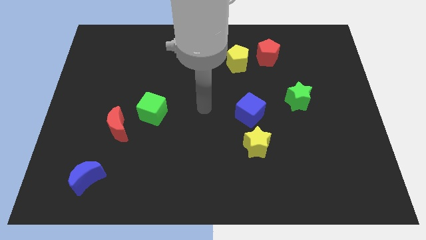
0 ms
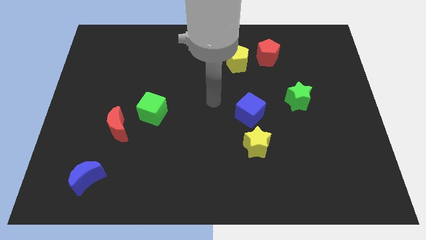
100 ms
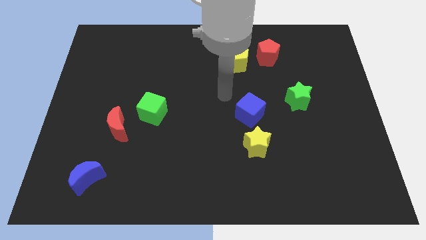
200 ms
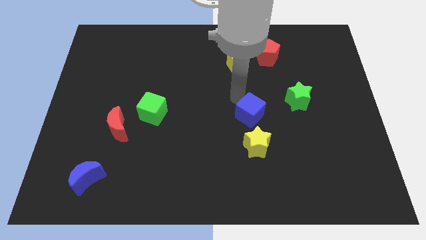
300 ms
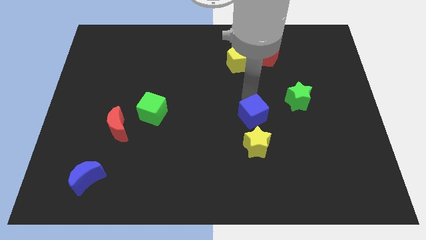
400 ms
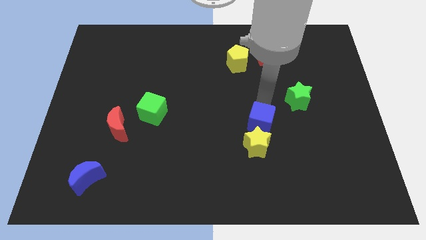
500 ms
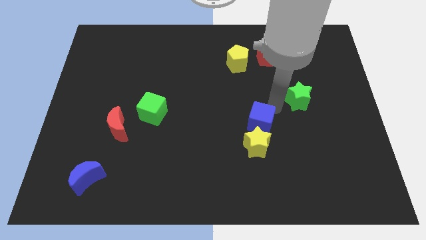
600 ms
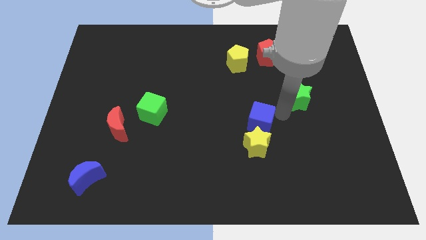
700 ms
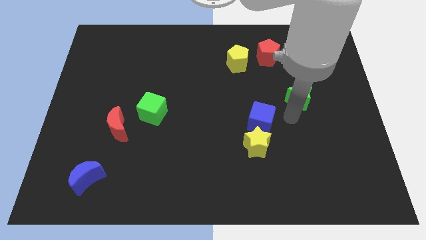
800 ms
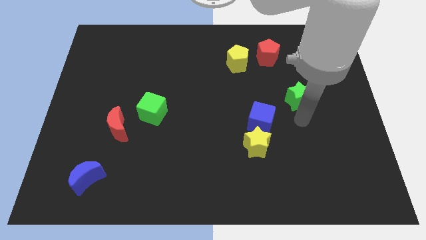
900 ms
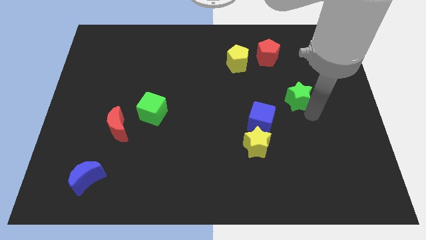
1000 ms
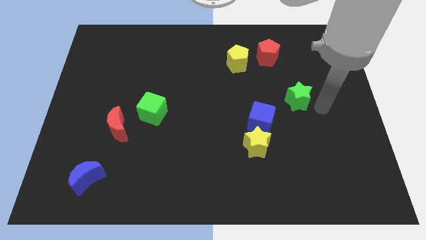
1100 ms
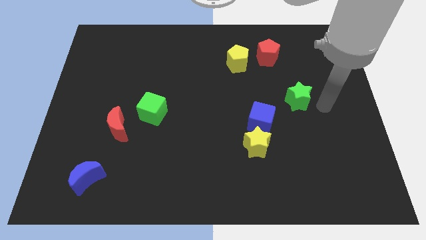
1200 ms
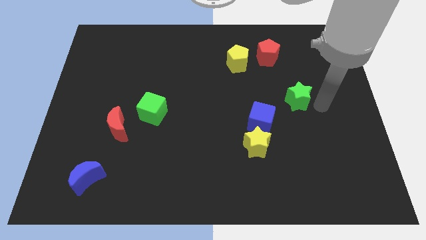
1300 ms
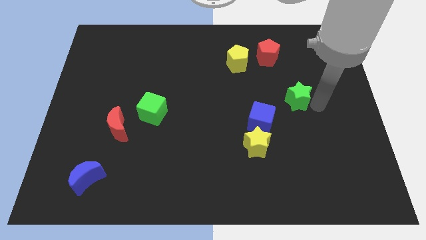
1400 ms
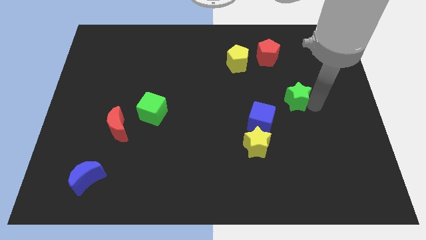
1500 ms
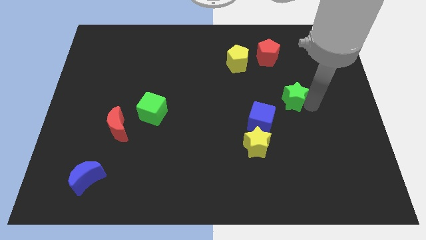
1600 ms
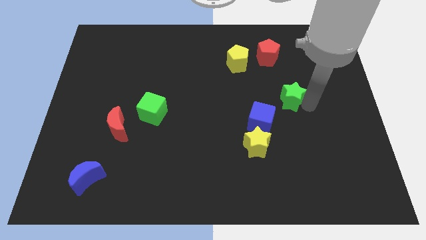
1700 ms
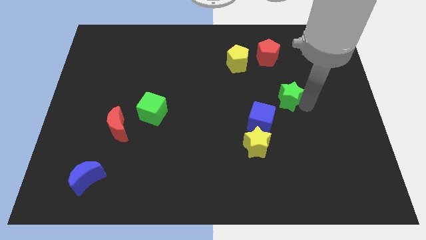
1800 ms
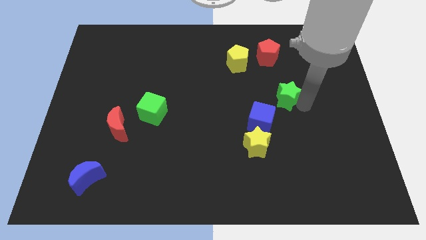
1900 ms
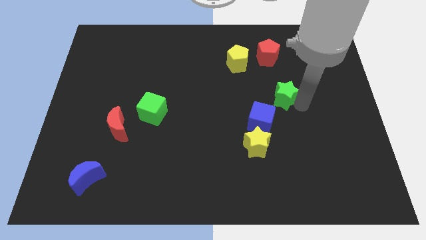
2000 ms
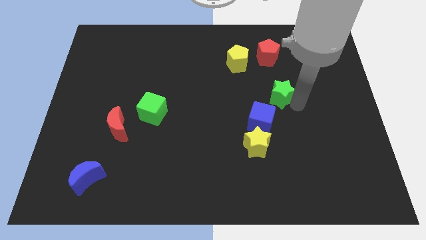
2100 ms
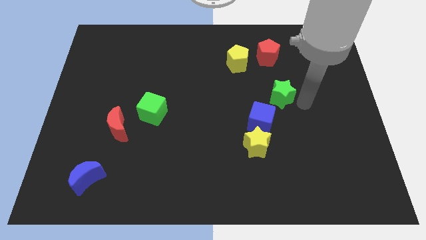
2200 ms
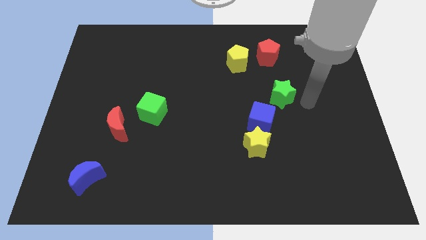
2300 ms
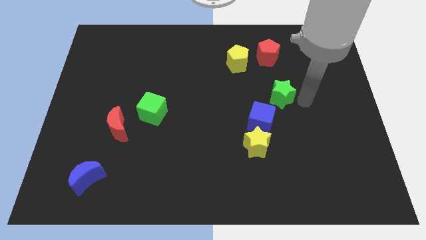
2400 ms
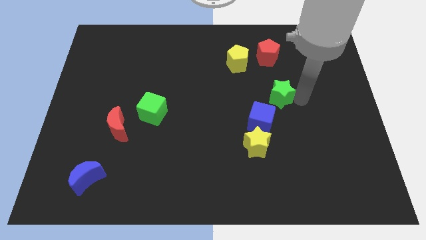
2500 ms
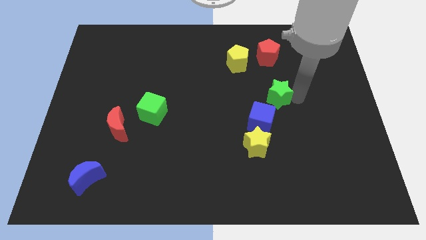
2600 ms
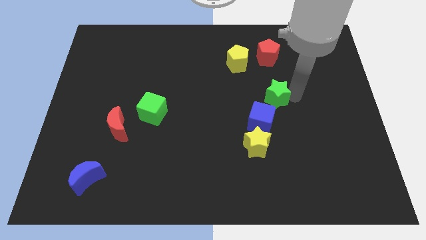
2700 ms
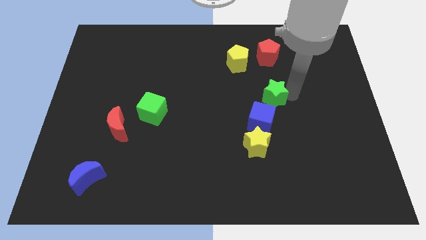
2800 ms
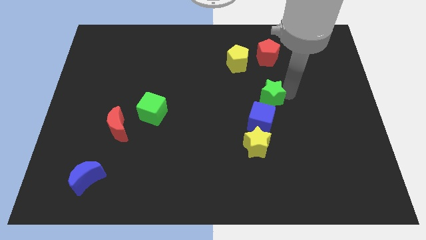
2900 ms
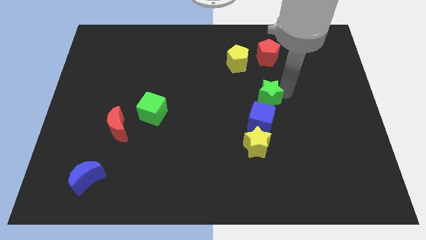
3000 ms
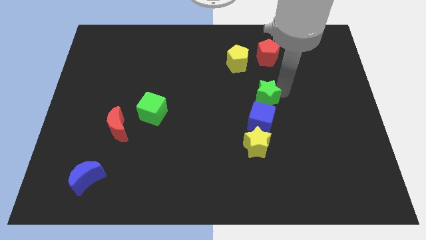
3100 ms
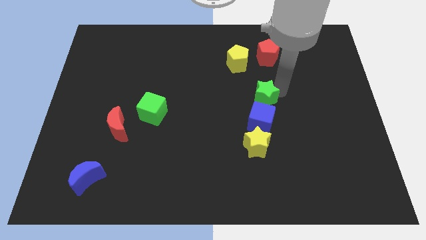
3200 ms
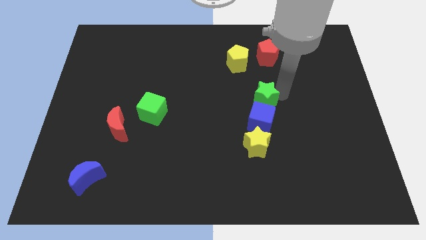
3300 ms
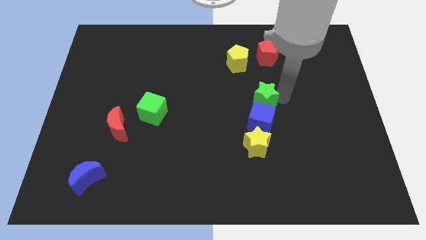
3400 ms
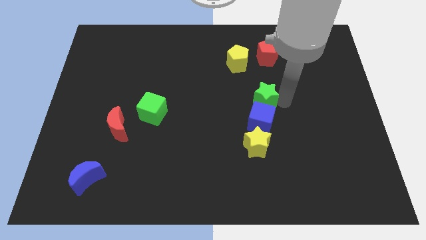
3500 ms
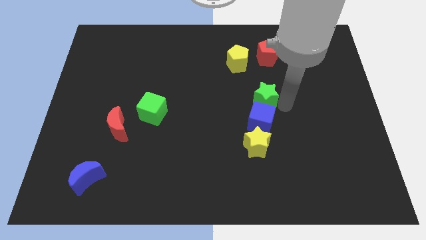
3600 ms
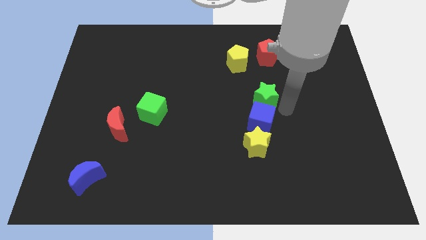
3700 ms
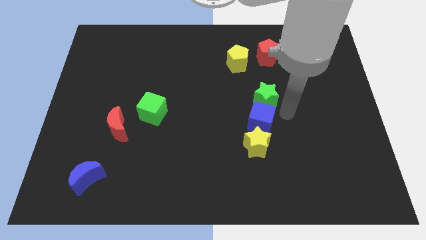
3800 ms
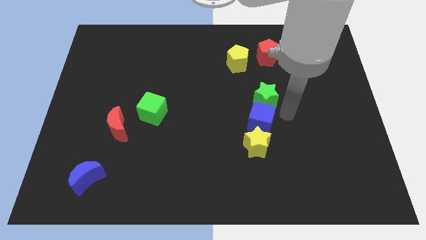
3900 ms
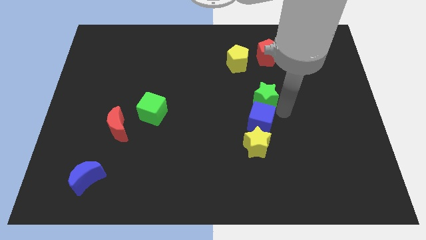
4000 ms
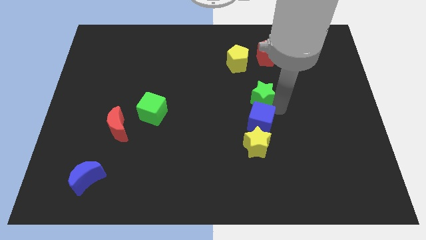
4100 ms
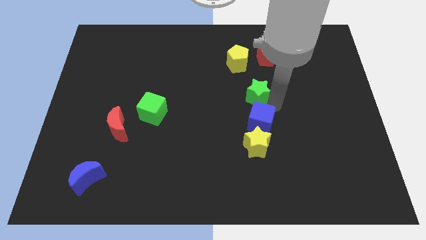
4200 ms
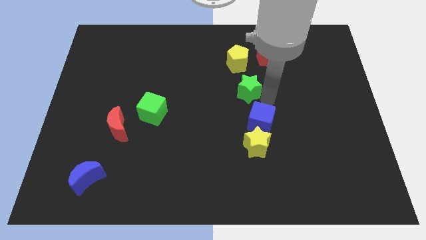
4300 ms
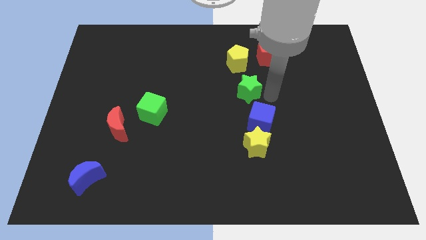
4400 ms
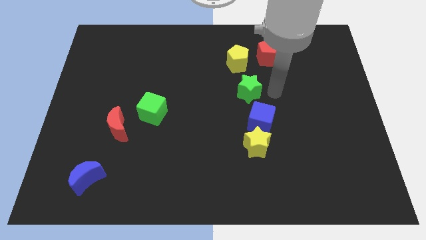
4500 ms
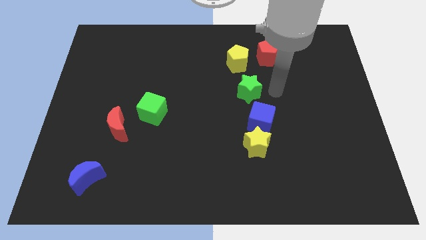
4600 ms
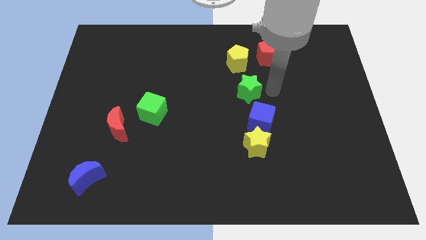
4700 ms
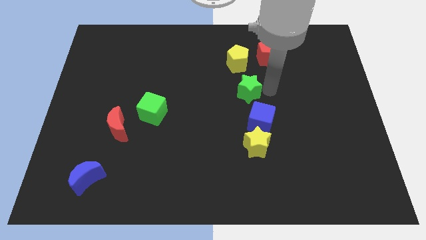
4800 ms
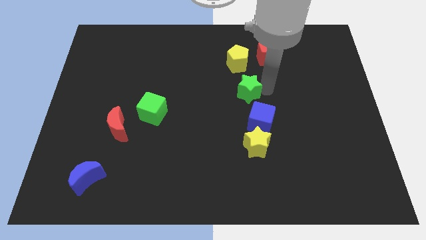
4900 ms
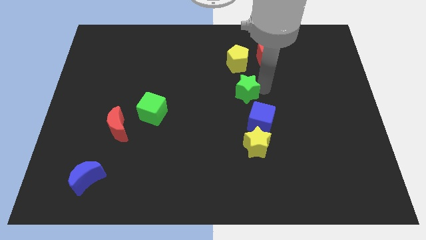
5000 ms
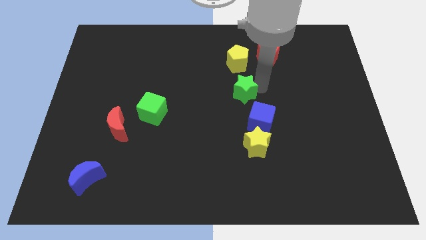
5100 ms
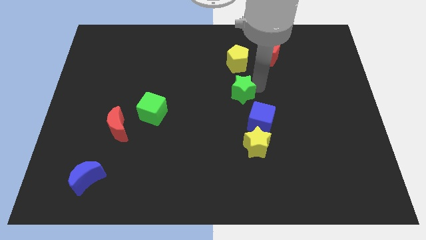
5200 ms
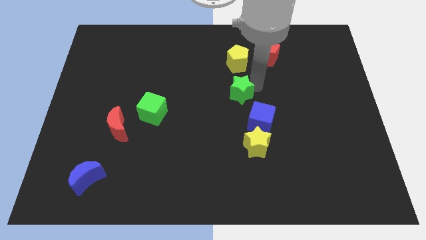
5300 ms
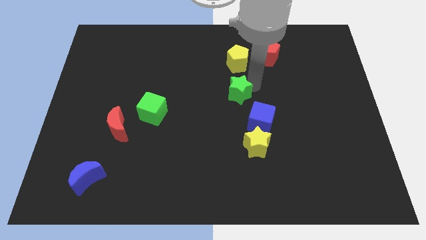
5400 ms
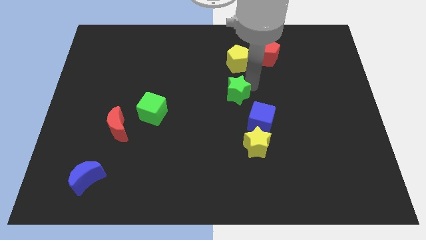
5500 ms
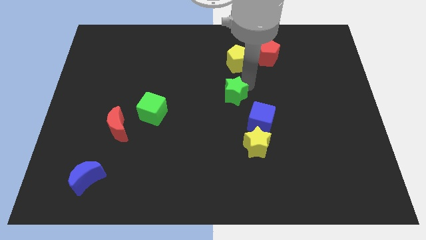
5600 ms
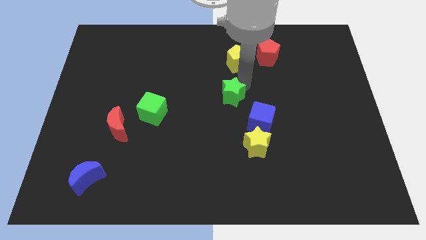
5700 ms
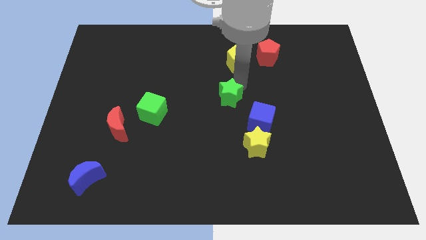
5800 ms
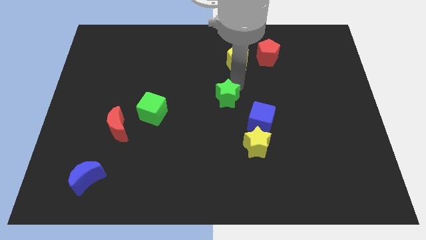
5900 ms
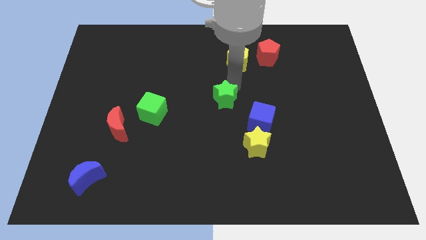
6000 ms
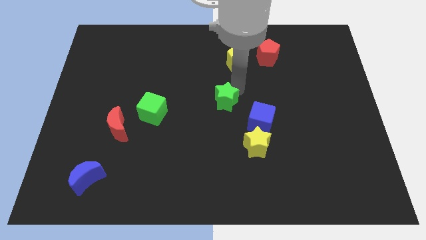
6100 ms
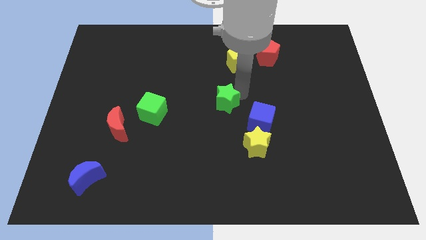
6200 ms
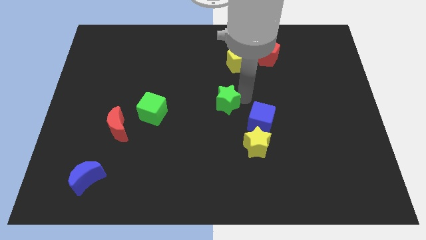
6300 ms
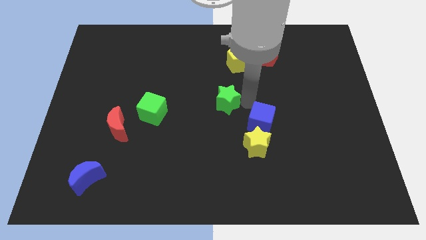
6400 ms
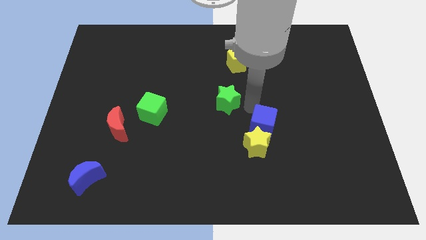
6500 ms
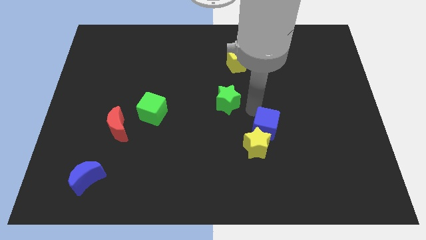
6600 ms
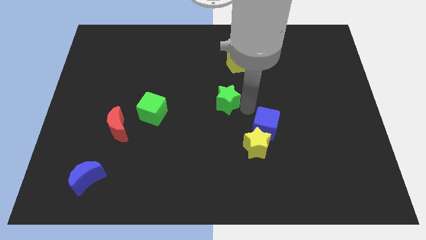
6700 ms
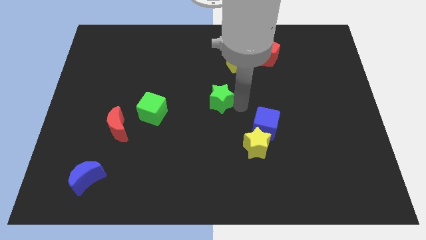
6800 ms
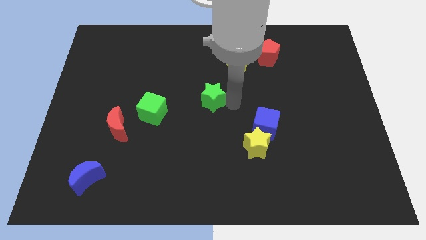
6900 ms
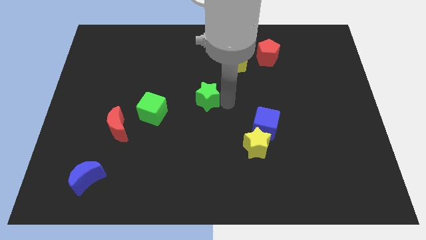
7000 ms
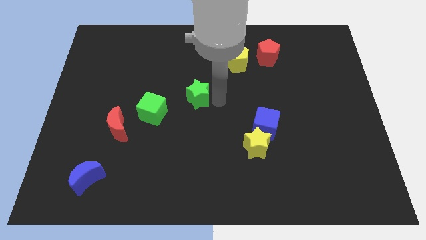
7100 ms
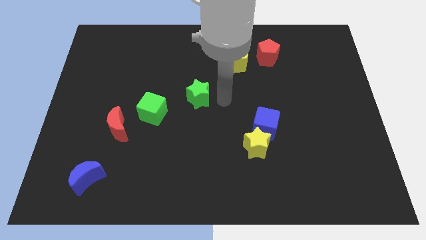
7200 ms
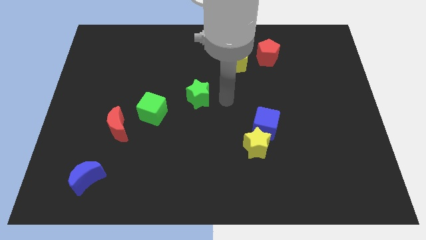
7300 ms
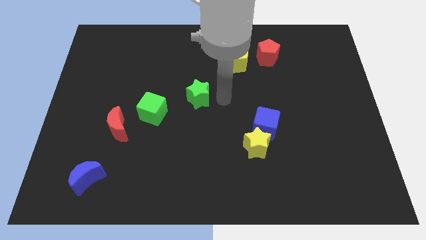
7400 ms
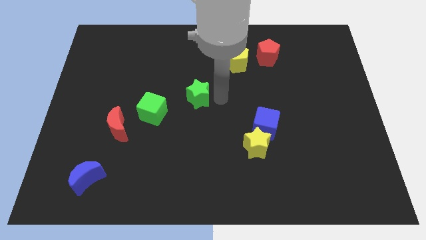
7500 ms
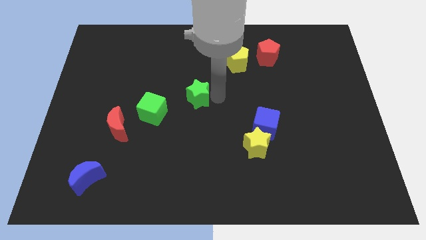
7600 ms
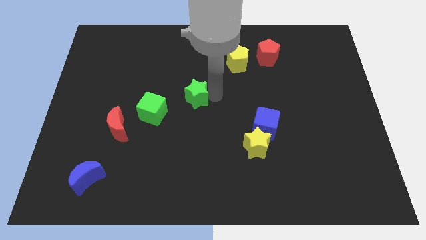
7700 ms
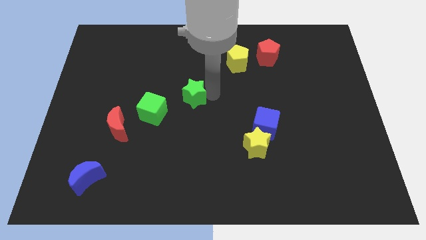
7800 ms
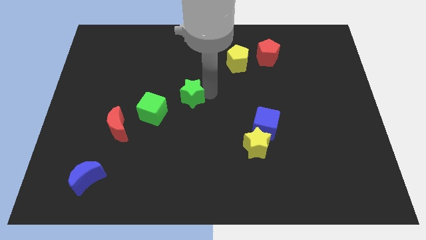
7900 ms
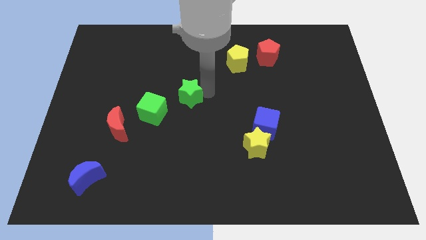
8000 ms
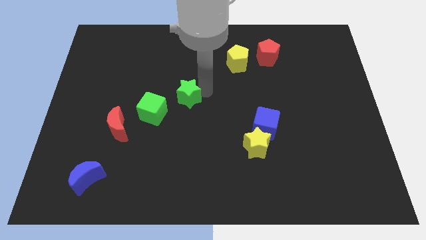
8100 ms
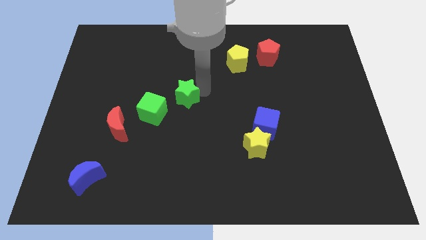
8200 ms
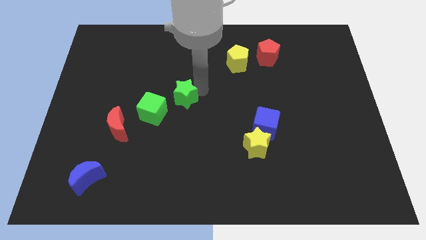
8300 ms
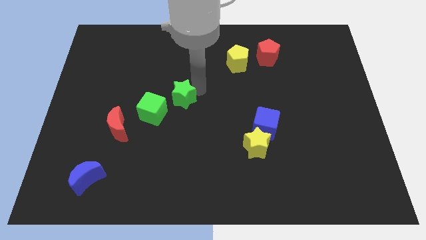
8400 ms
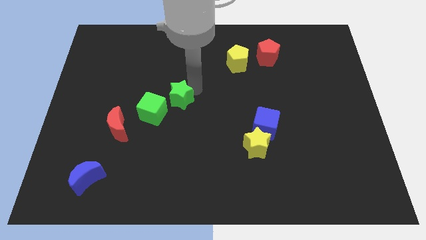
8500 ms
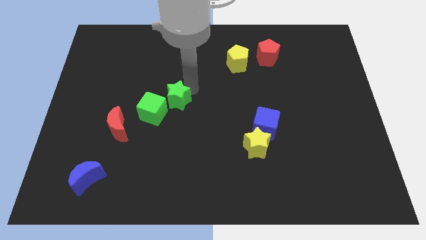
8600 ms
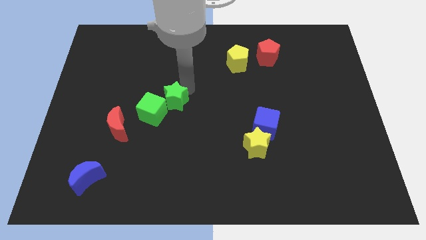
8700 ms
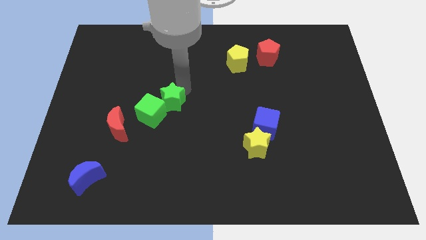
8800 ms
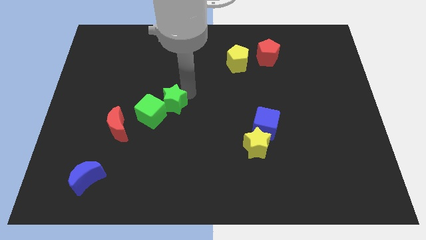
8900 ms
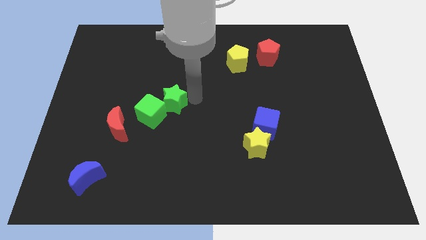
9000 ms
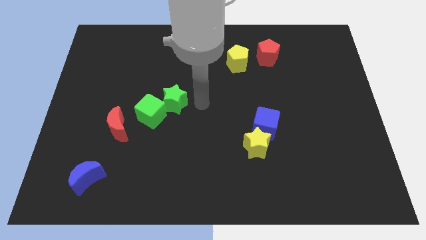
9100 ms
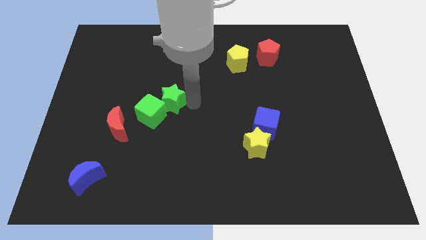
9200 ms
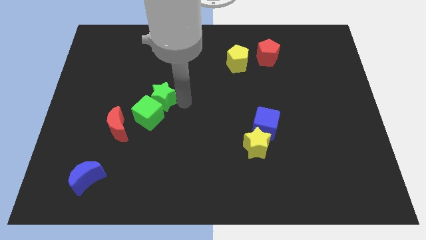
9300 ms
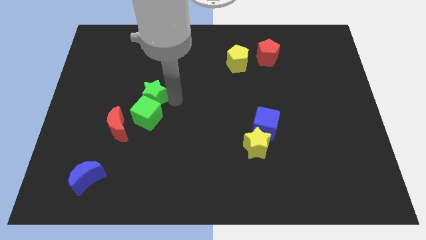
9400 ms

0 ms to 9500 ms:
slide the green star diagonally up and to the left of the green cube
